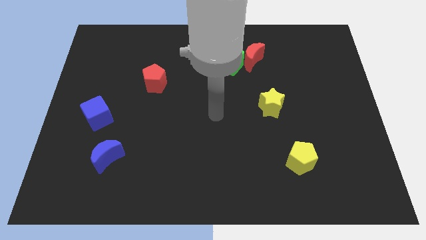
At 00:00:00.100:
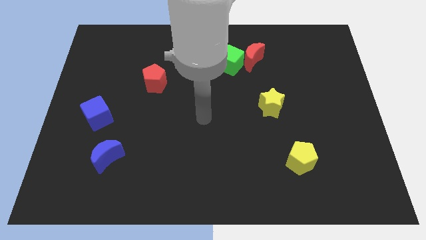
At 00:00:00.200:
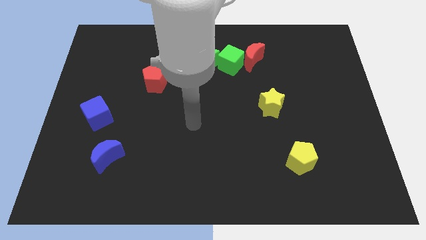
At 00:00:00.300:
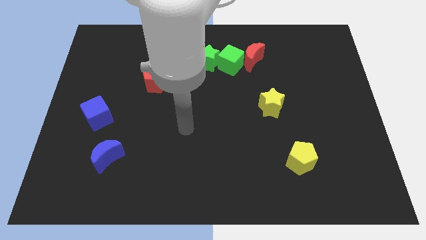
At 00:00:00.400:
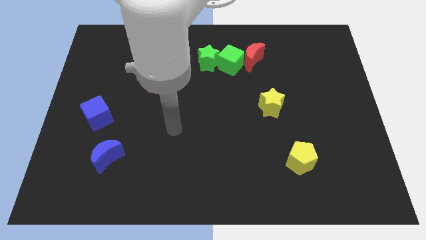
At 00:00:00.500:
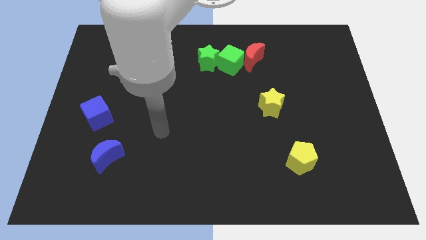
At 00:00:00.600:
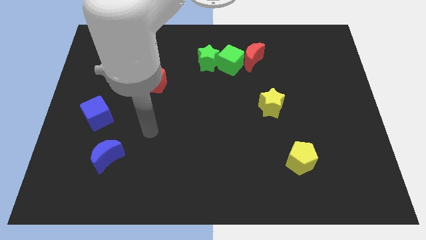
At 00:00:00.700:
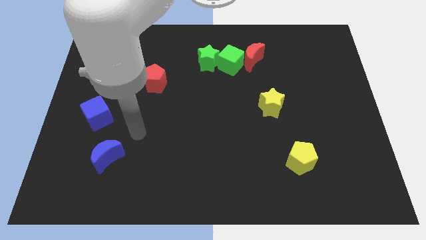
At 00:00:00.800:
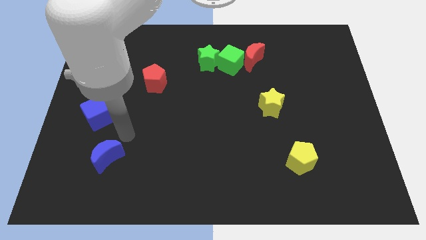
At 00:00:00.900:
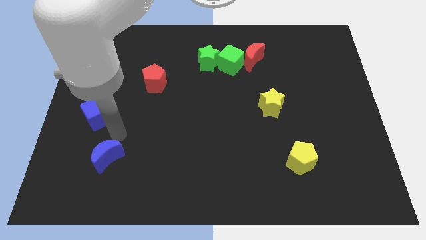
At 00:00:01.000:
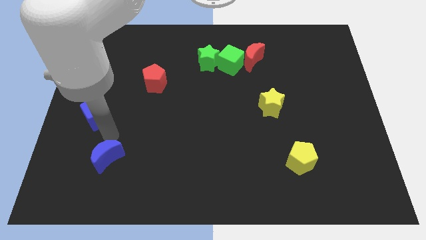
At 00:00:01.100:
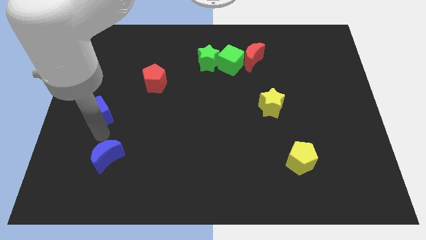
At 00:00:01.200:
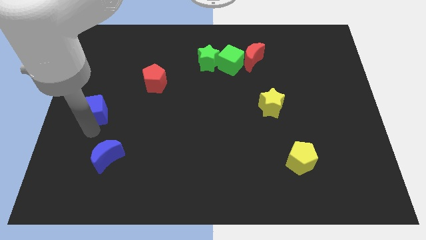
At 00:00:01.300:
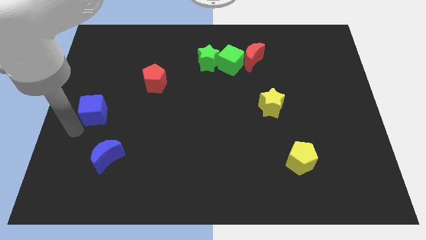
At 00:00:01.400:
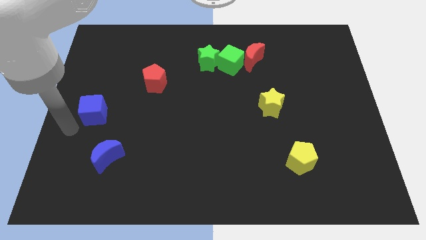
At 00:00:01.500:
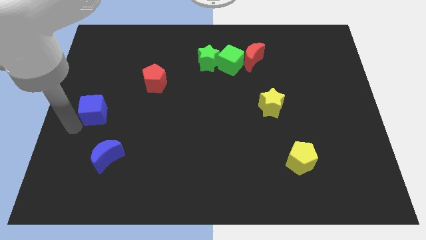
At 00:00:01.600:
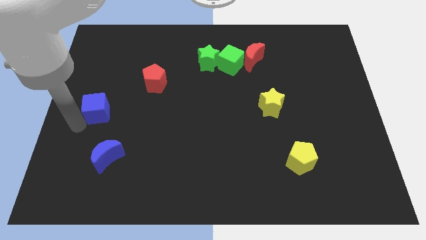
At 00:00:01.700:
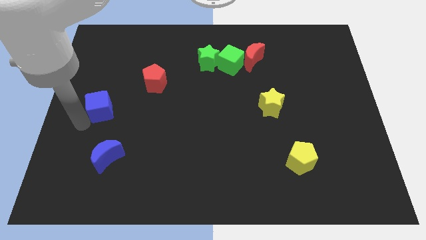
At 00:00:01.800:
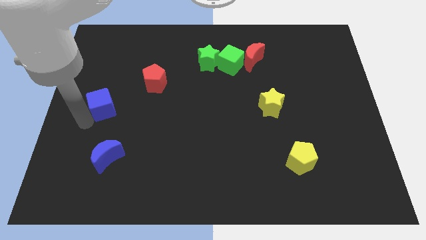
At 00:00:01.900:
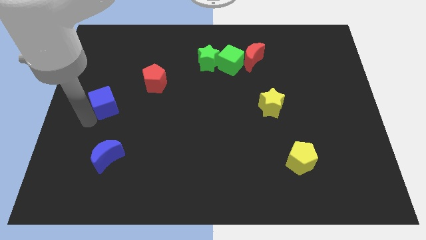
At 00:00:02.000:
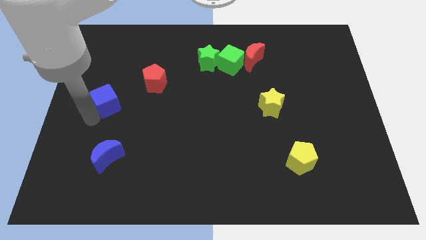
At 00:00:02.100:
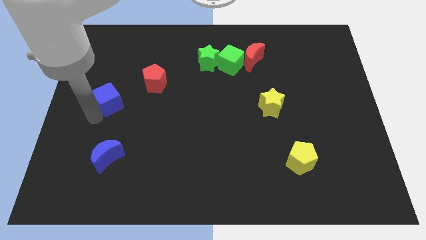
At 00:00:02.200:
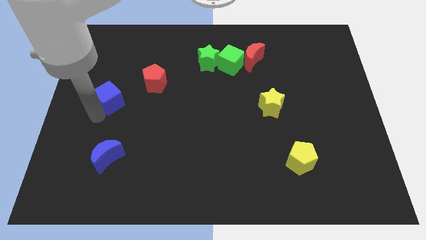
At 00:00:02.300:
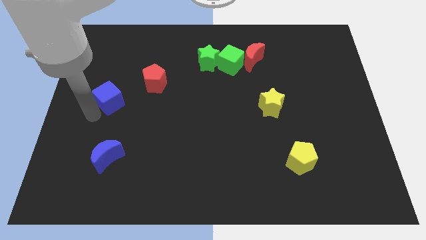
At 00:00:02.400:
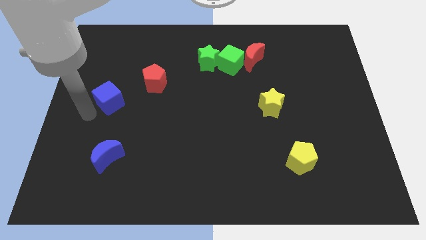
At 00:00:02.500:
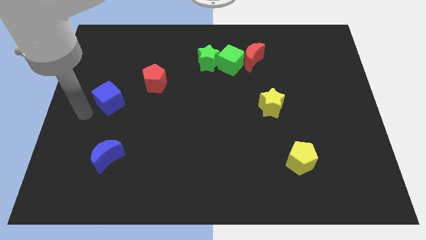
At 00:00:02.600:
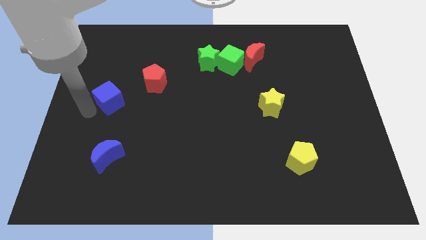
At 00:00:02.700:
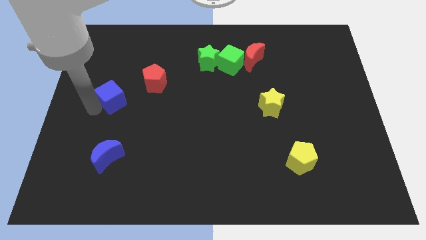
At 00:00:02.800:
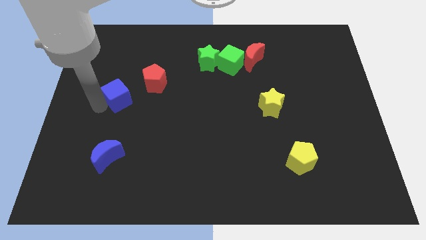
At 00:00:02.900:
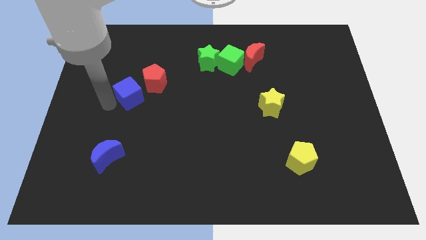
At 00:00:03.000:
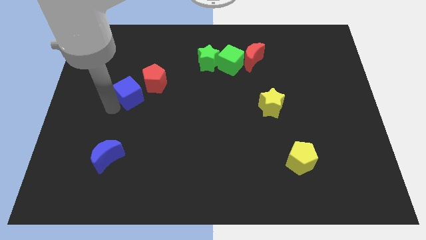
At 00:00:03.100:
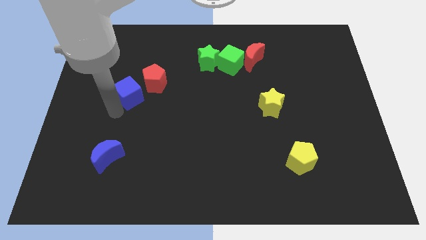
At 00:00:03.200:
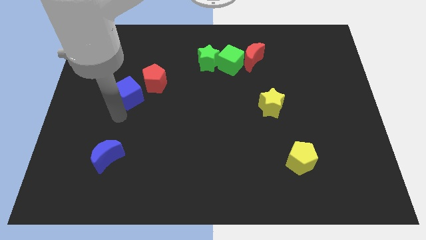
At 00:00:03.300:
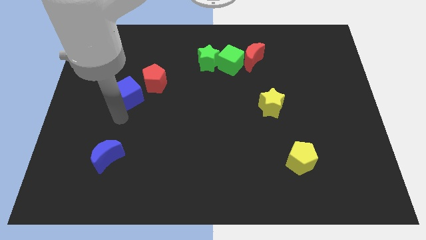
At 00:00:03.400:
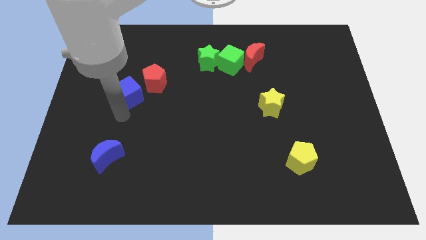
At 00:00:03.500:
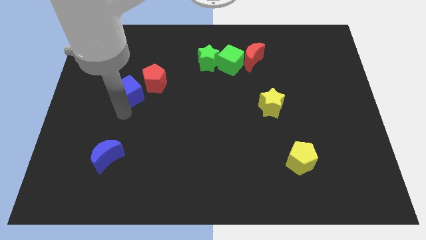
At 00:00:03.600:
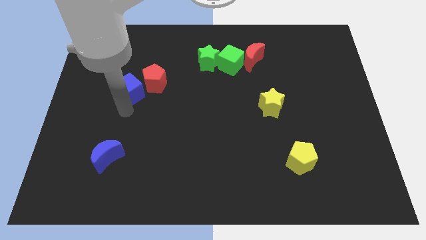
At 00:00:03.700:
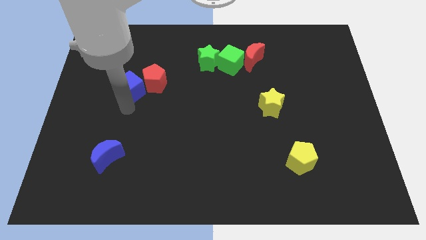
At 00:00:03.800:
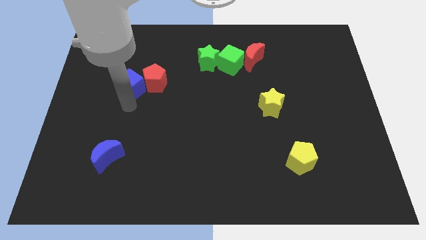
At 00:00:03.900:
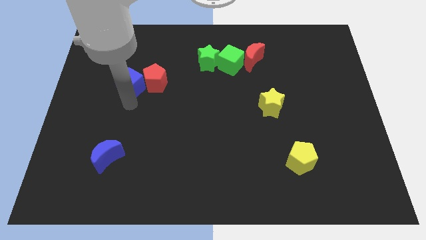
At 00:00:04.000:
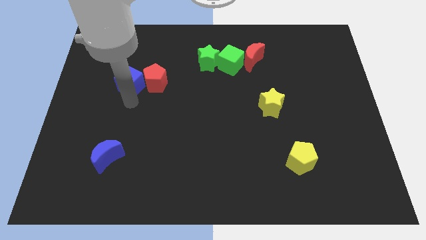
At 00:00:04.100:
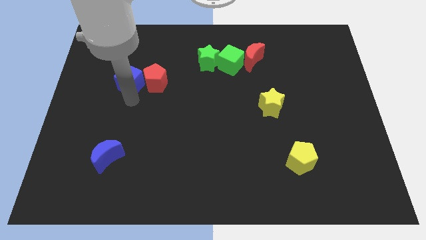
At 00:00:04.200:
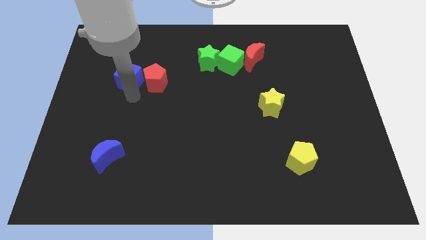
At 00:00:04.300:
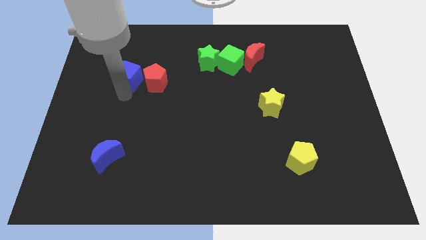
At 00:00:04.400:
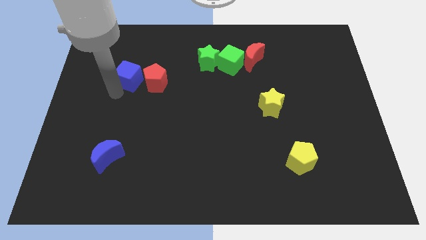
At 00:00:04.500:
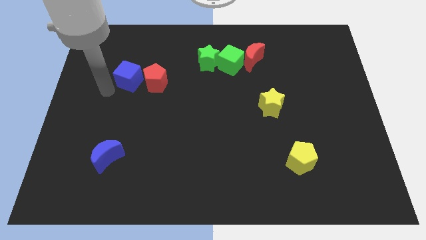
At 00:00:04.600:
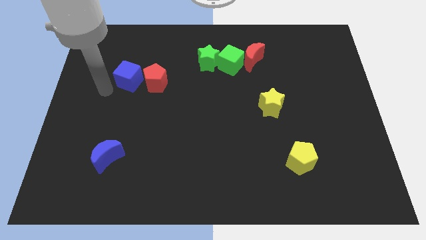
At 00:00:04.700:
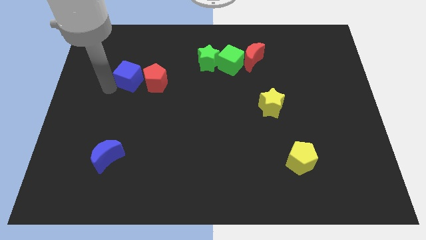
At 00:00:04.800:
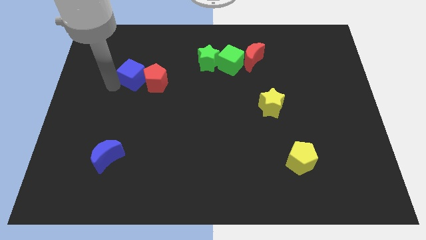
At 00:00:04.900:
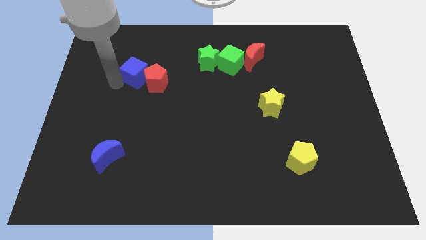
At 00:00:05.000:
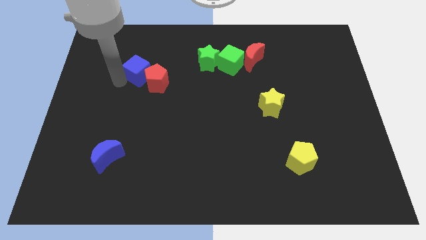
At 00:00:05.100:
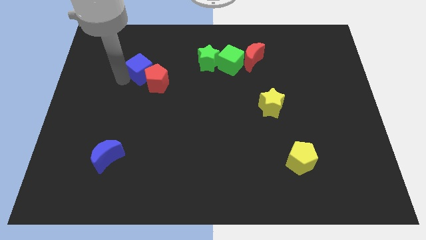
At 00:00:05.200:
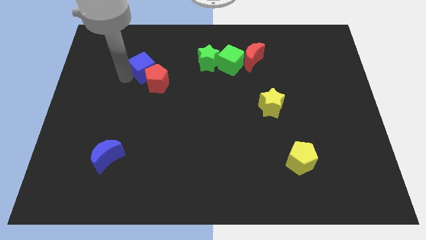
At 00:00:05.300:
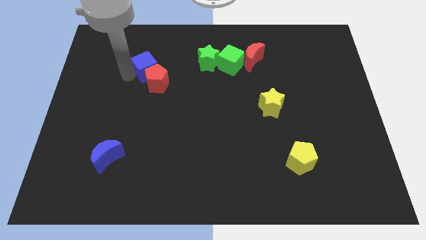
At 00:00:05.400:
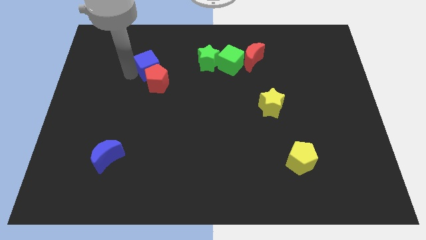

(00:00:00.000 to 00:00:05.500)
put the blue cube just left of the green star
